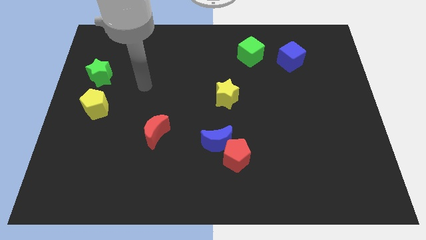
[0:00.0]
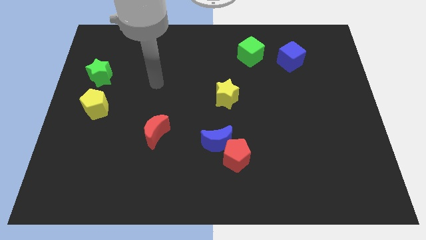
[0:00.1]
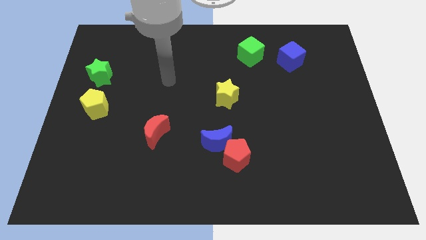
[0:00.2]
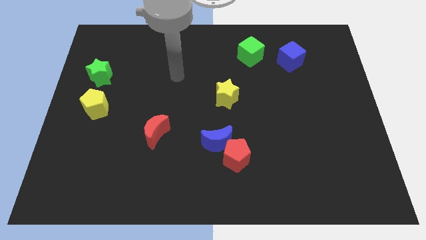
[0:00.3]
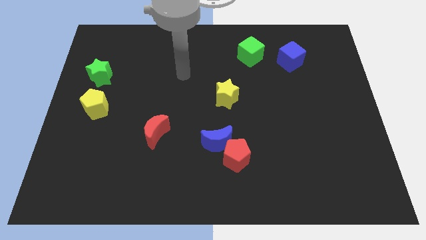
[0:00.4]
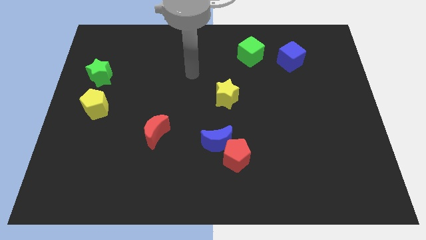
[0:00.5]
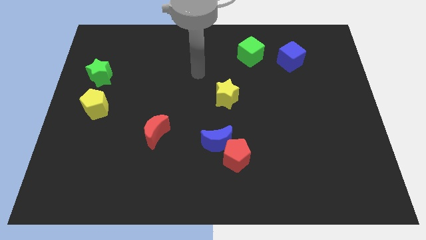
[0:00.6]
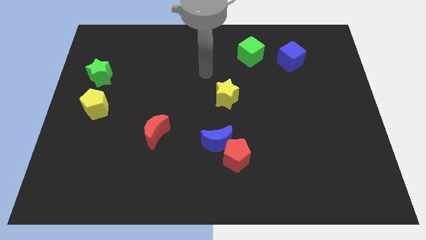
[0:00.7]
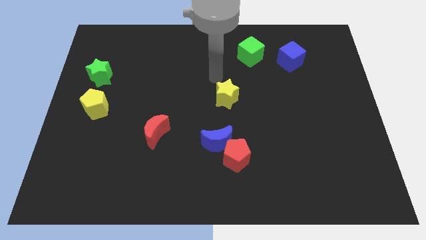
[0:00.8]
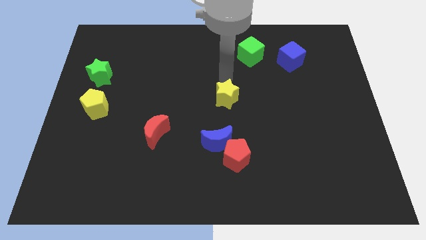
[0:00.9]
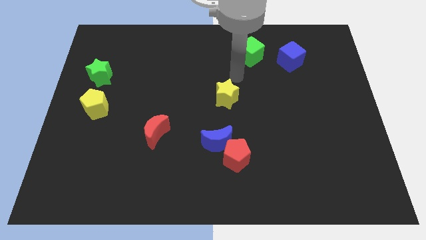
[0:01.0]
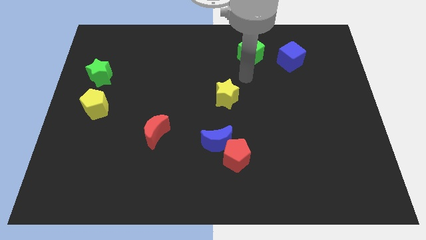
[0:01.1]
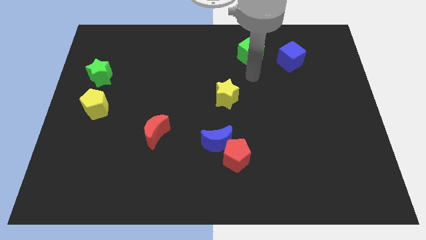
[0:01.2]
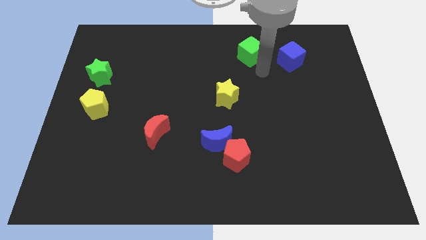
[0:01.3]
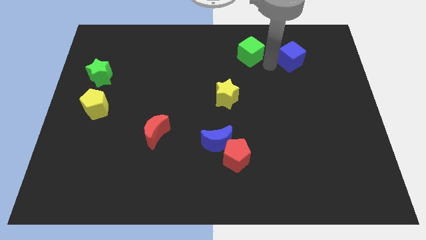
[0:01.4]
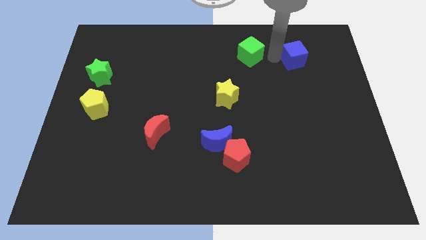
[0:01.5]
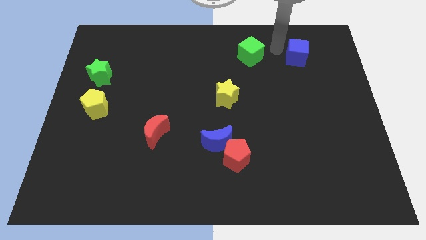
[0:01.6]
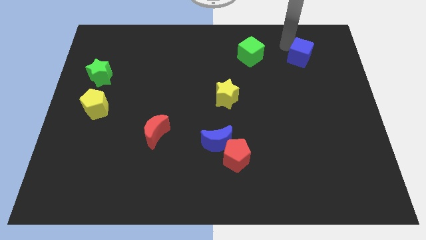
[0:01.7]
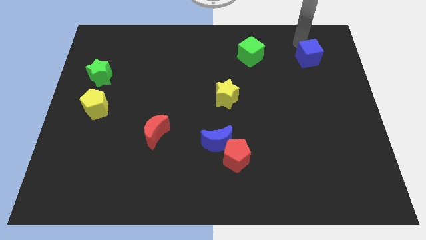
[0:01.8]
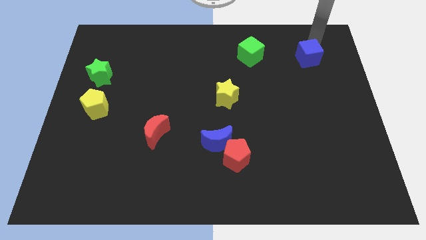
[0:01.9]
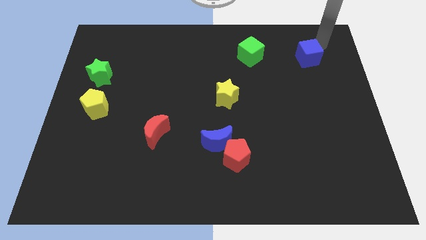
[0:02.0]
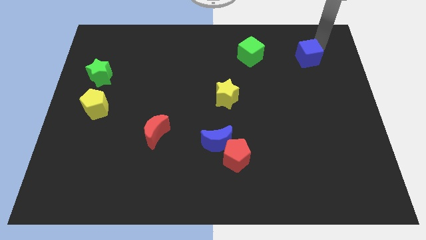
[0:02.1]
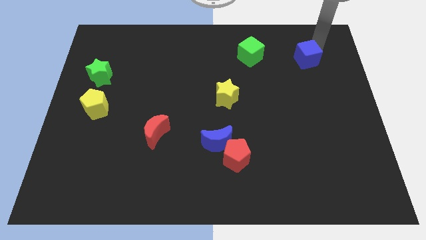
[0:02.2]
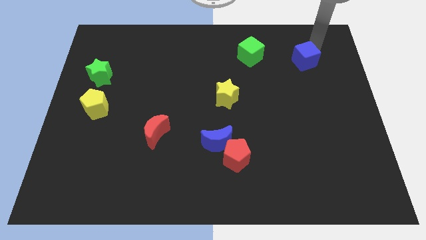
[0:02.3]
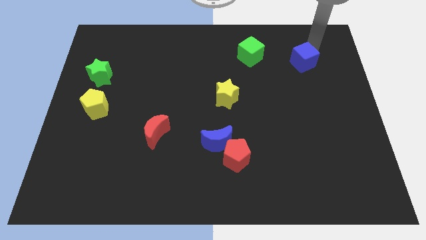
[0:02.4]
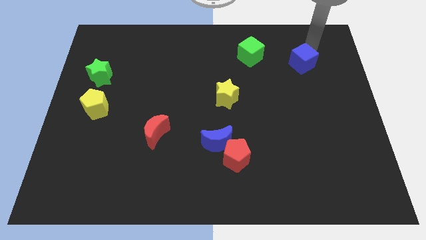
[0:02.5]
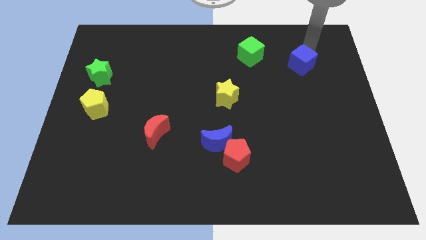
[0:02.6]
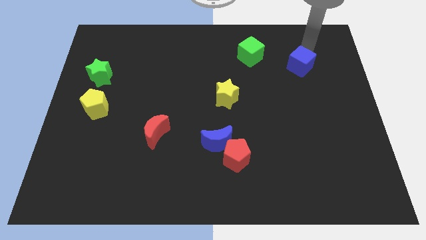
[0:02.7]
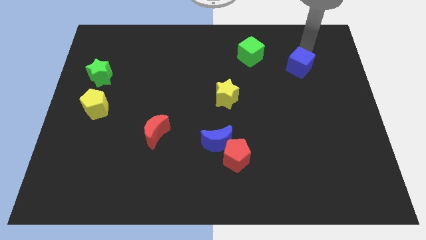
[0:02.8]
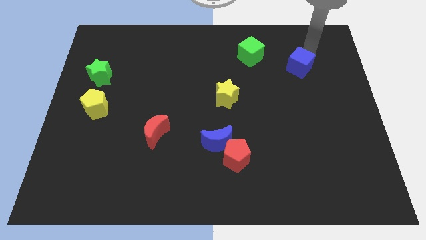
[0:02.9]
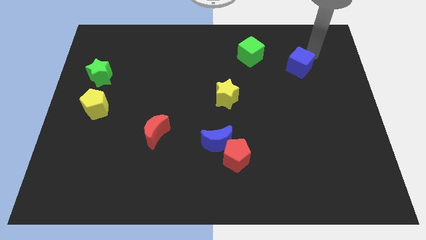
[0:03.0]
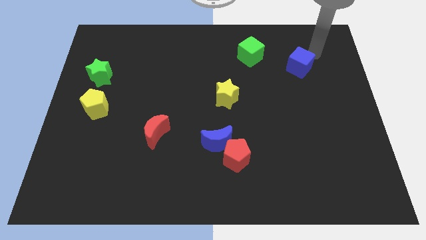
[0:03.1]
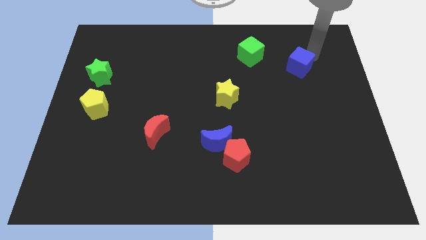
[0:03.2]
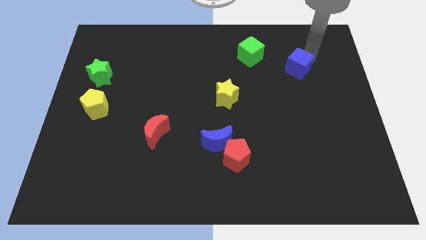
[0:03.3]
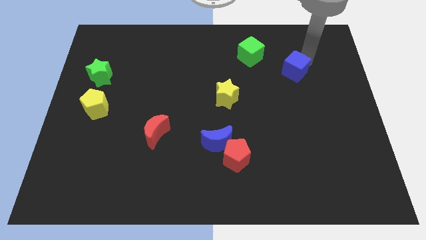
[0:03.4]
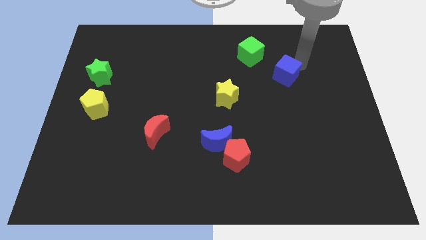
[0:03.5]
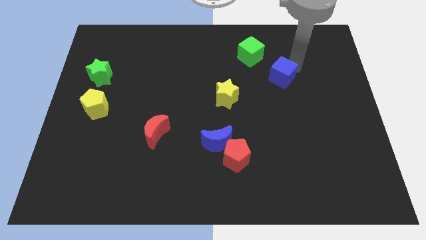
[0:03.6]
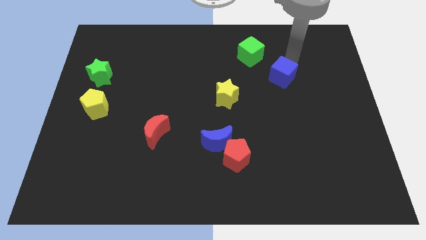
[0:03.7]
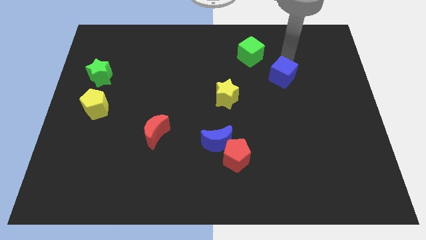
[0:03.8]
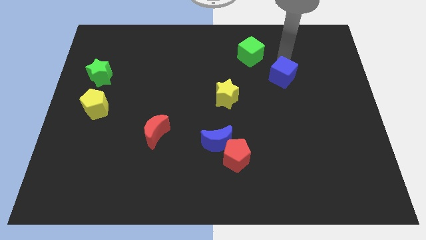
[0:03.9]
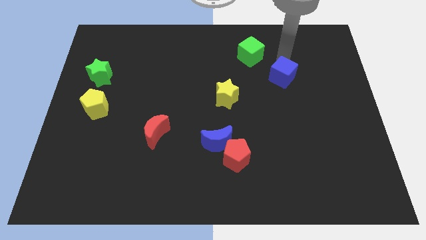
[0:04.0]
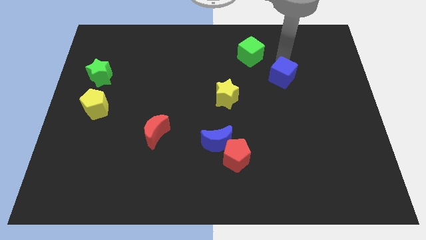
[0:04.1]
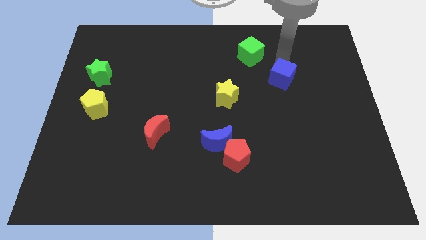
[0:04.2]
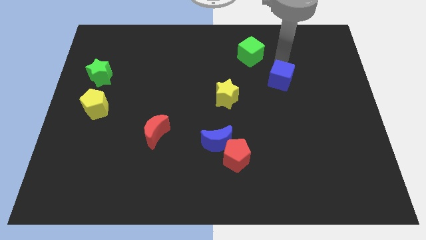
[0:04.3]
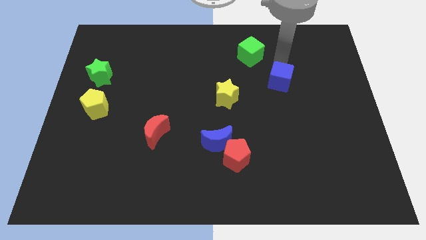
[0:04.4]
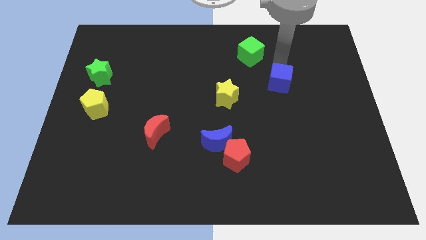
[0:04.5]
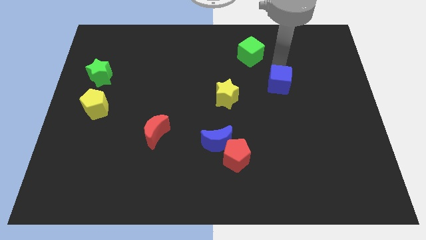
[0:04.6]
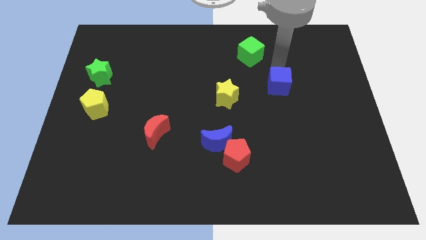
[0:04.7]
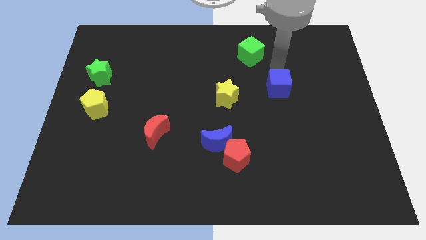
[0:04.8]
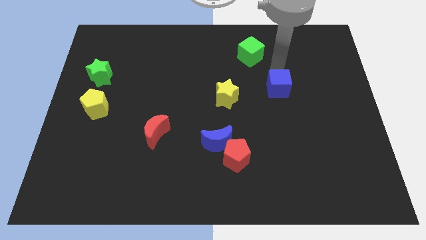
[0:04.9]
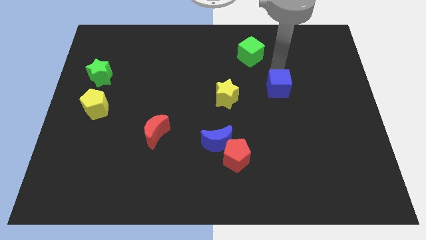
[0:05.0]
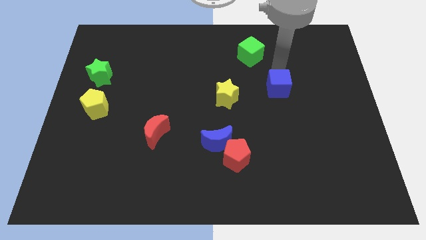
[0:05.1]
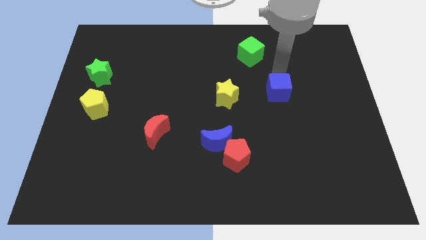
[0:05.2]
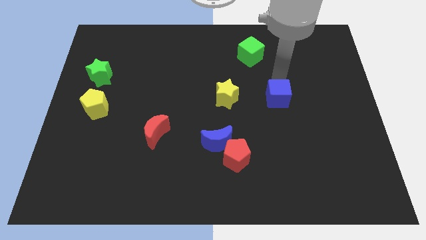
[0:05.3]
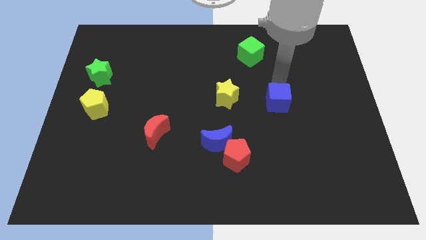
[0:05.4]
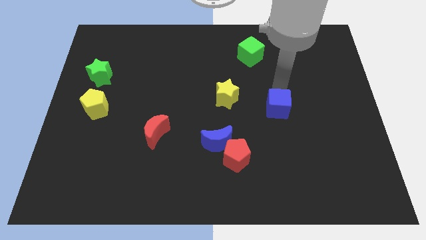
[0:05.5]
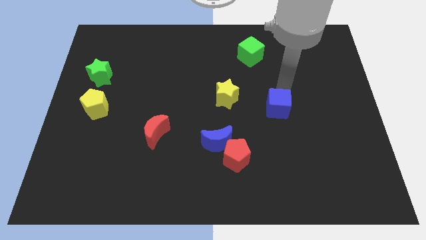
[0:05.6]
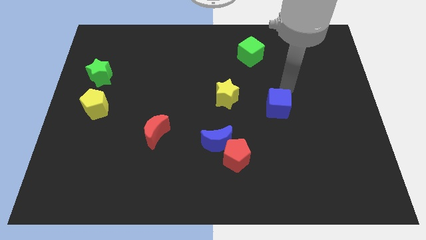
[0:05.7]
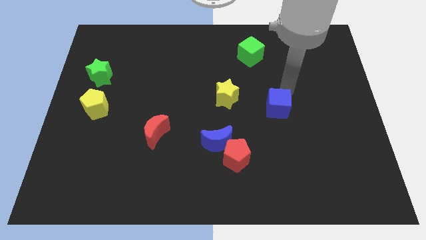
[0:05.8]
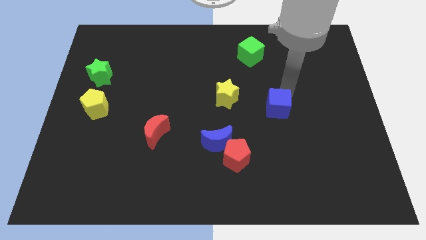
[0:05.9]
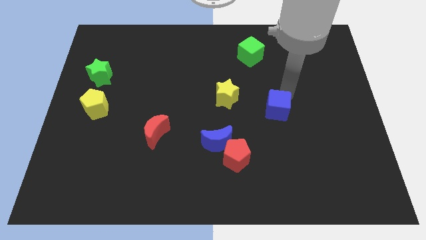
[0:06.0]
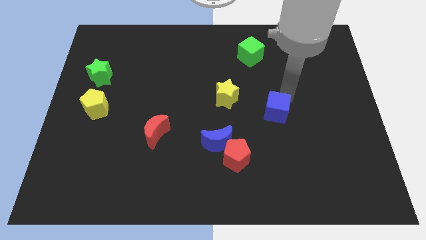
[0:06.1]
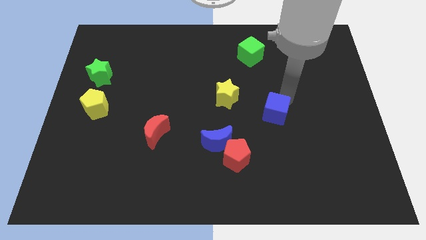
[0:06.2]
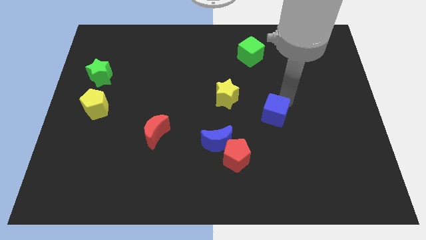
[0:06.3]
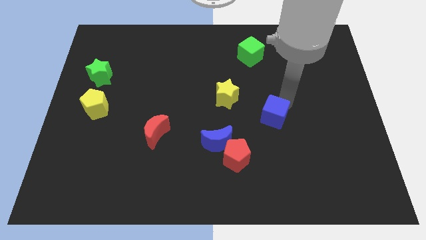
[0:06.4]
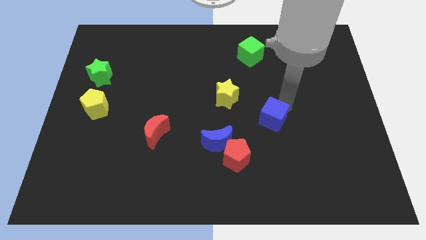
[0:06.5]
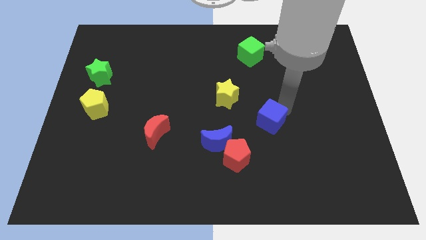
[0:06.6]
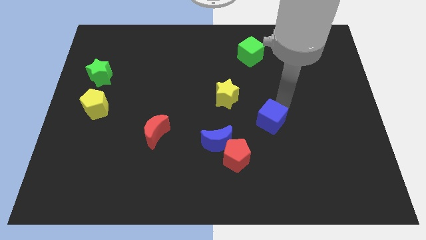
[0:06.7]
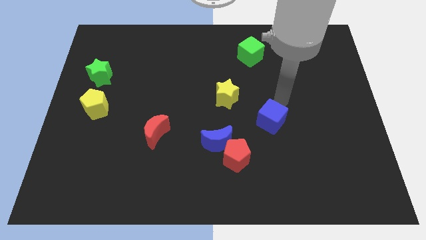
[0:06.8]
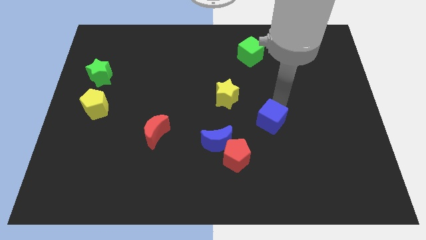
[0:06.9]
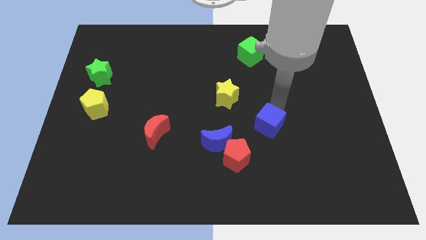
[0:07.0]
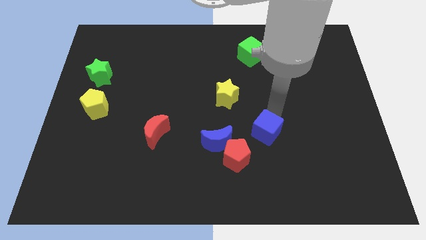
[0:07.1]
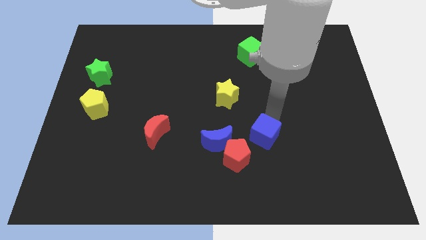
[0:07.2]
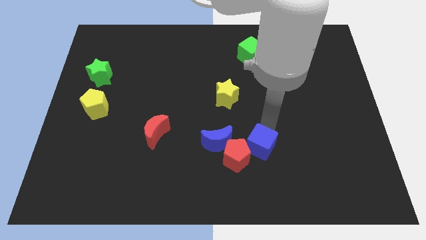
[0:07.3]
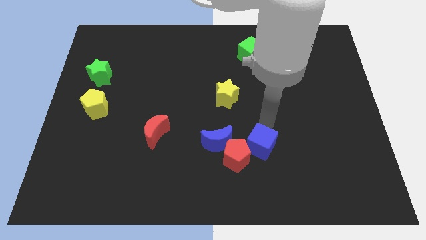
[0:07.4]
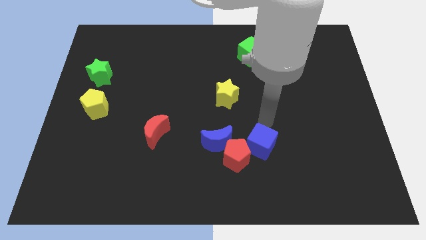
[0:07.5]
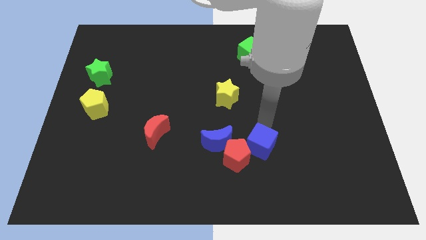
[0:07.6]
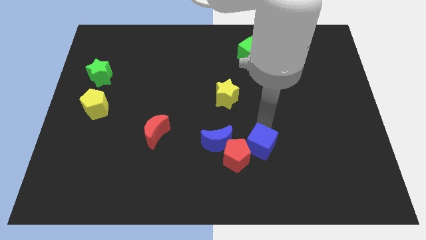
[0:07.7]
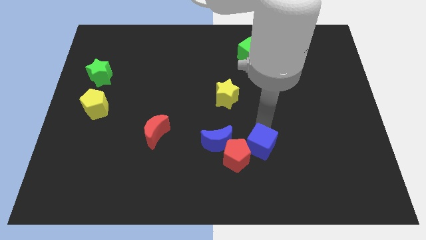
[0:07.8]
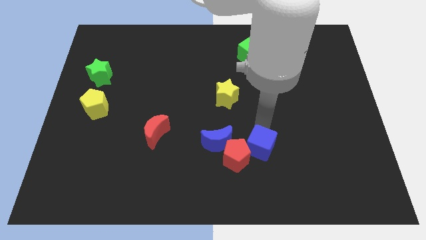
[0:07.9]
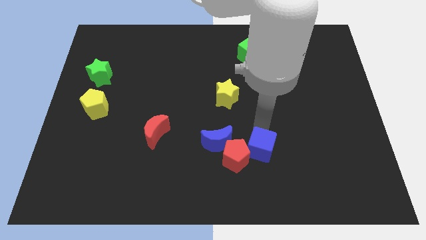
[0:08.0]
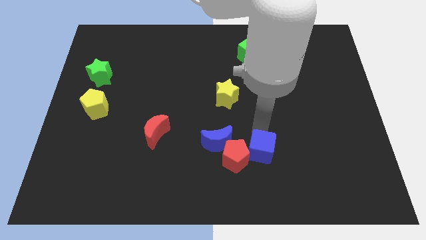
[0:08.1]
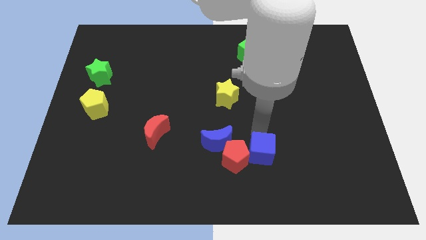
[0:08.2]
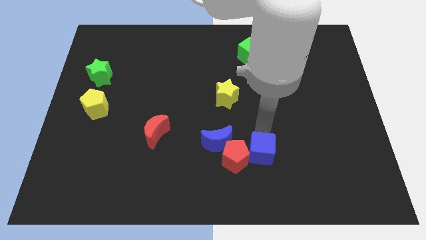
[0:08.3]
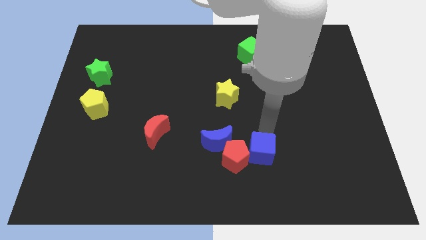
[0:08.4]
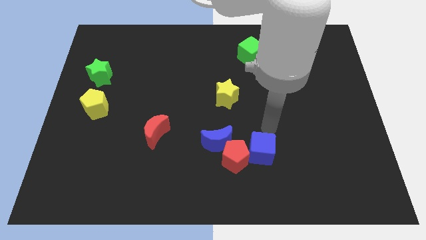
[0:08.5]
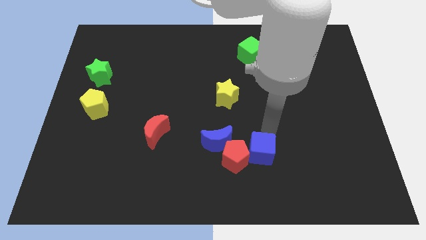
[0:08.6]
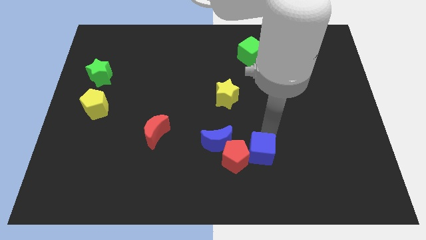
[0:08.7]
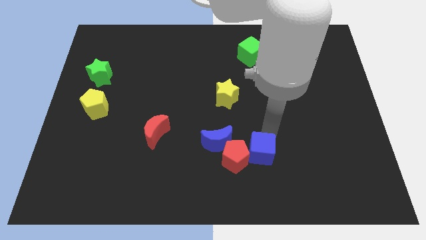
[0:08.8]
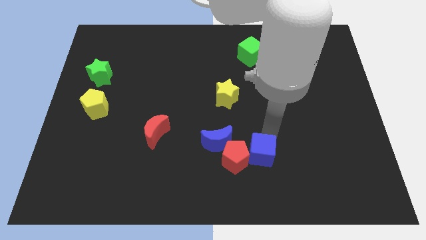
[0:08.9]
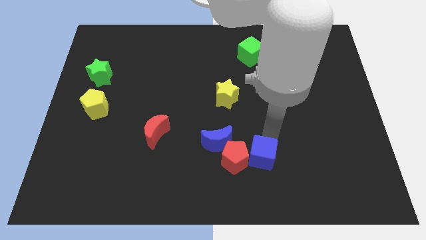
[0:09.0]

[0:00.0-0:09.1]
move the blue cube diagonally down and to the right of the red pentagon
